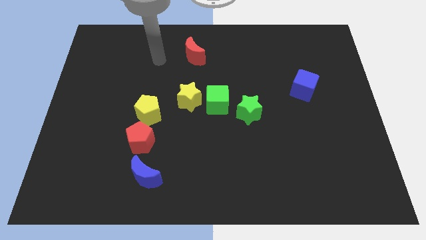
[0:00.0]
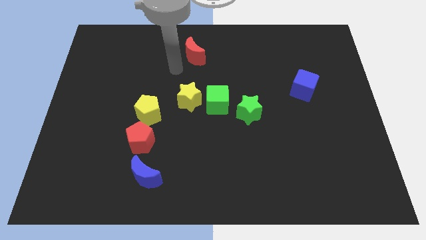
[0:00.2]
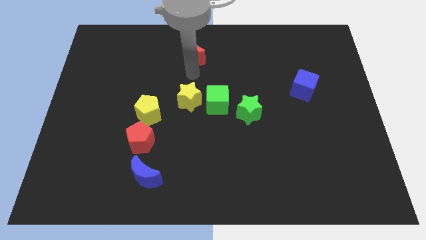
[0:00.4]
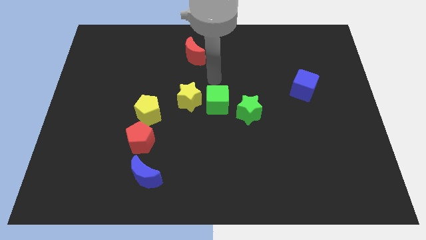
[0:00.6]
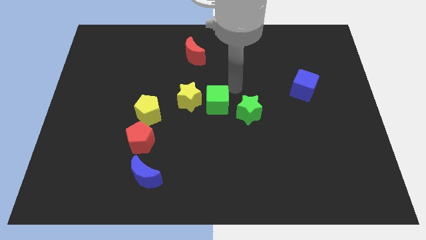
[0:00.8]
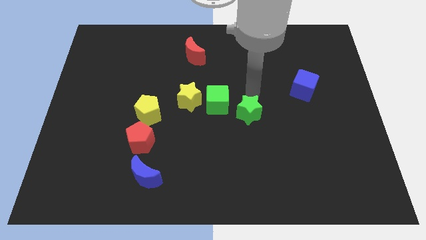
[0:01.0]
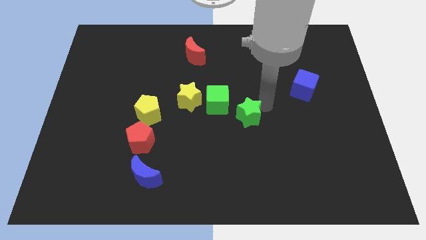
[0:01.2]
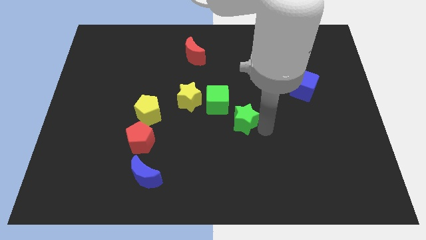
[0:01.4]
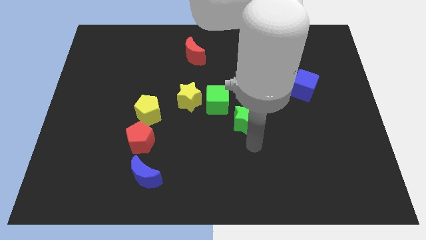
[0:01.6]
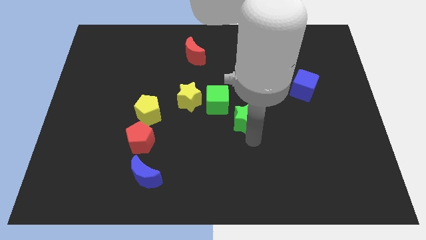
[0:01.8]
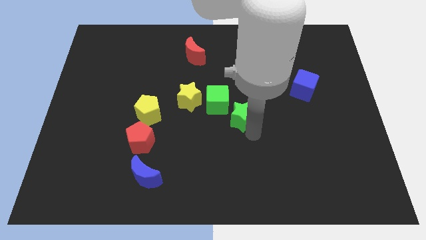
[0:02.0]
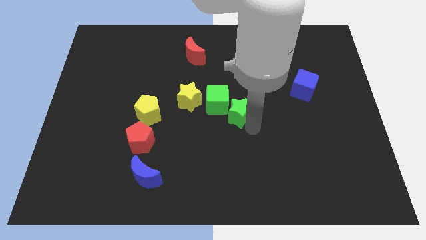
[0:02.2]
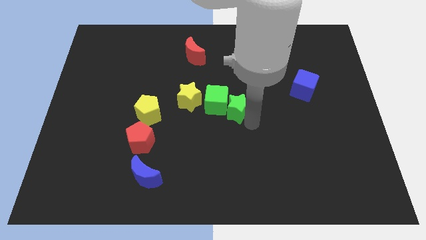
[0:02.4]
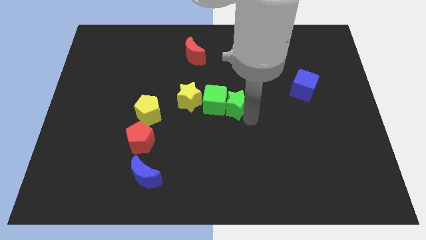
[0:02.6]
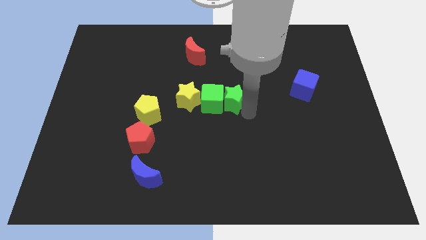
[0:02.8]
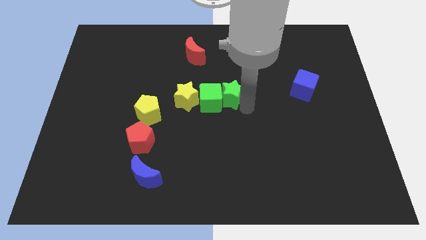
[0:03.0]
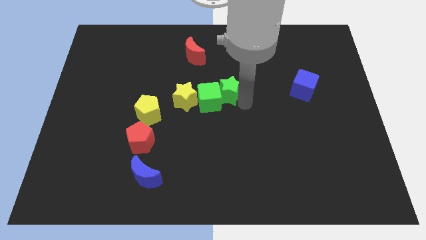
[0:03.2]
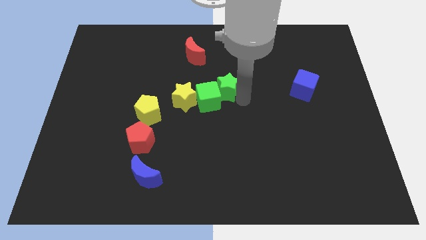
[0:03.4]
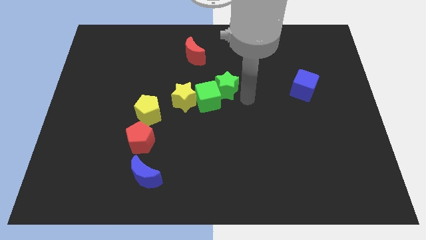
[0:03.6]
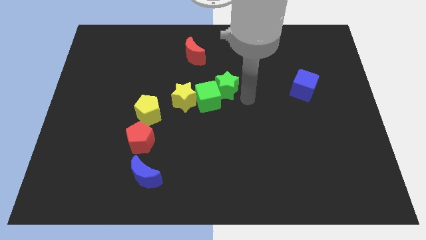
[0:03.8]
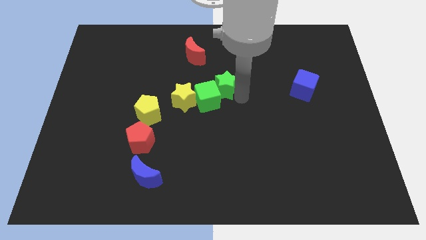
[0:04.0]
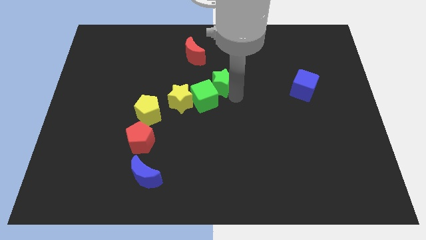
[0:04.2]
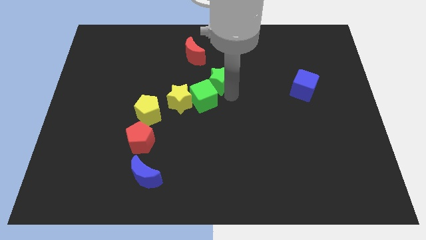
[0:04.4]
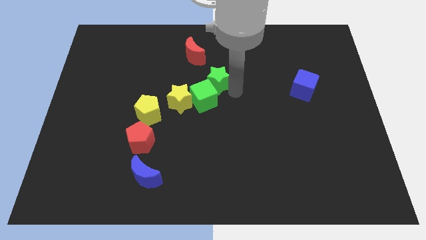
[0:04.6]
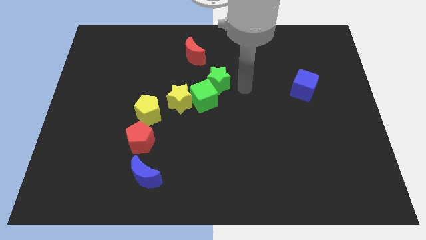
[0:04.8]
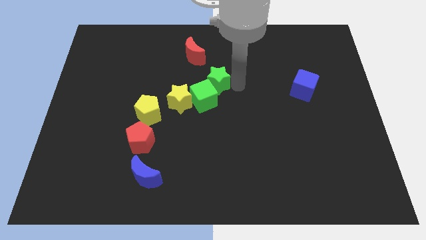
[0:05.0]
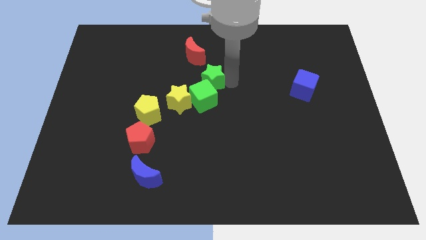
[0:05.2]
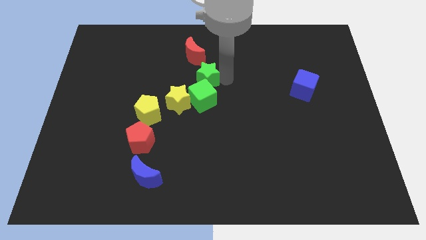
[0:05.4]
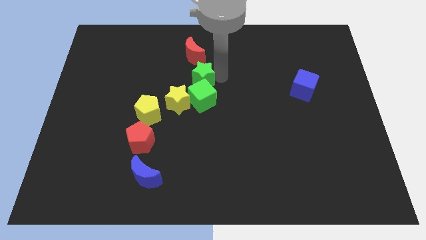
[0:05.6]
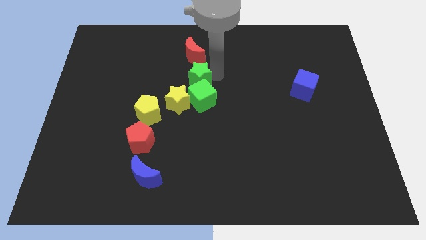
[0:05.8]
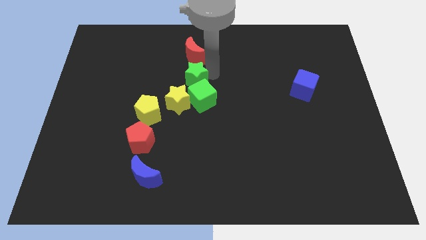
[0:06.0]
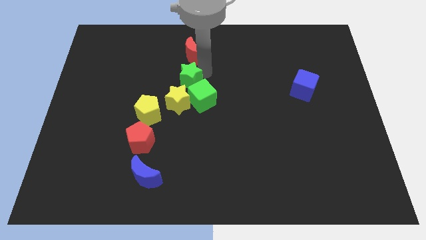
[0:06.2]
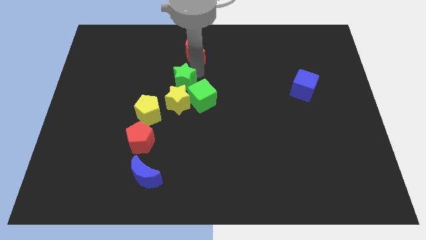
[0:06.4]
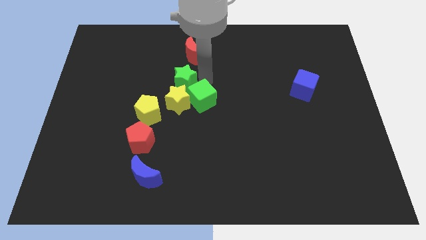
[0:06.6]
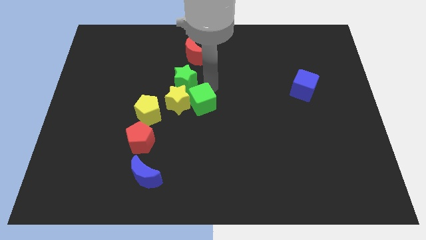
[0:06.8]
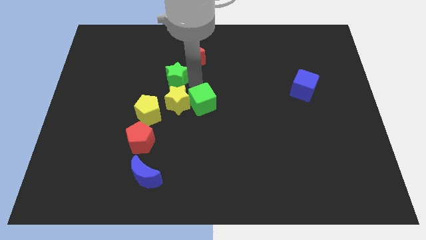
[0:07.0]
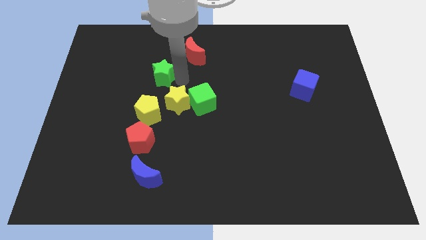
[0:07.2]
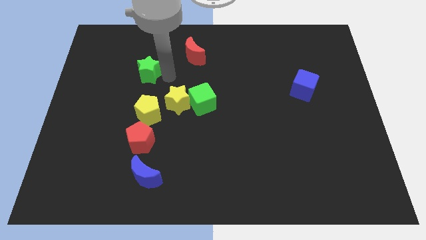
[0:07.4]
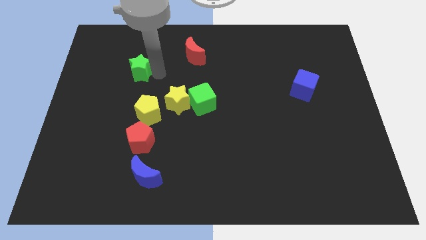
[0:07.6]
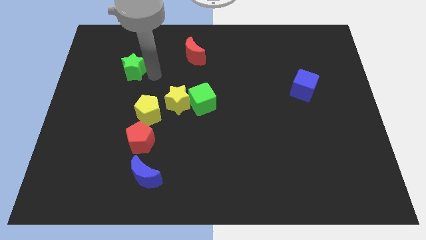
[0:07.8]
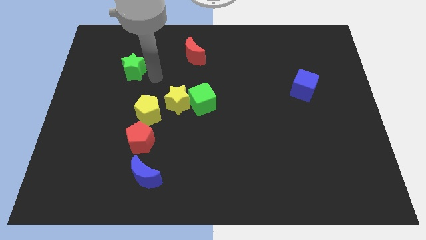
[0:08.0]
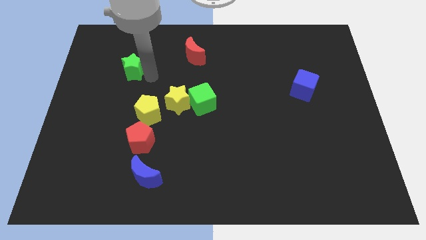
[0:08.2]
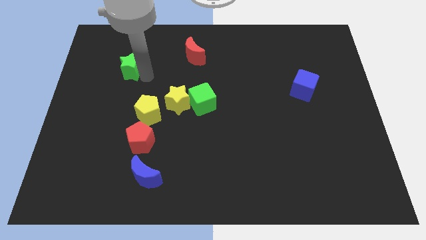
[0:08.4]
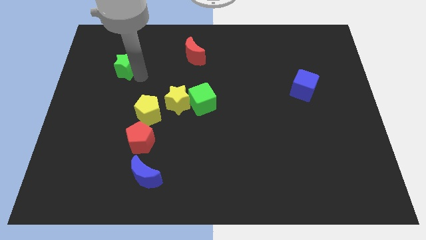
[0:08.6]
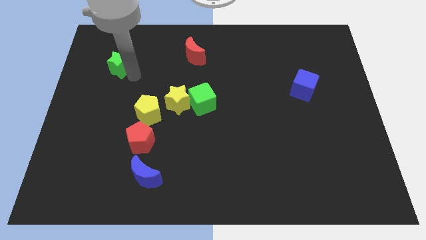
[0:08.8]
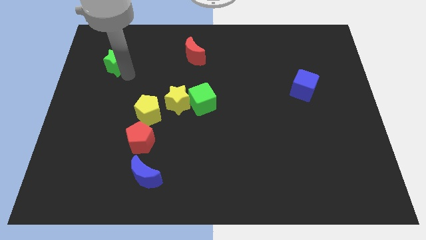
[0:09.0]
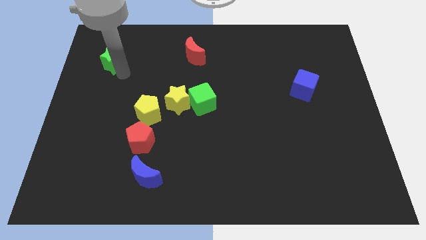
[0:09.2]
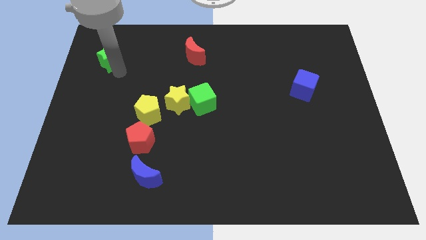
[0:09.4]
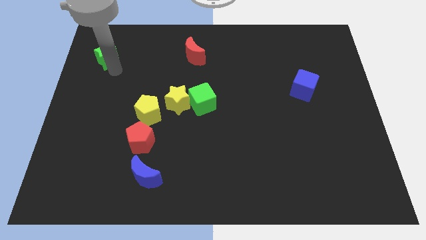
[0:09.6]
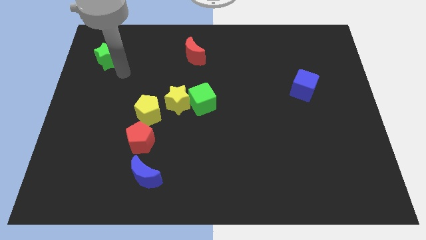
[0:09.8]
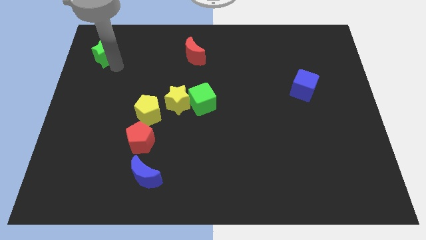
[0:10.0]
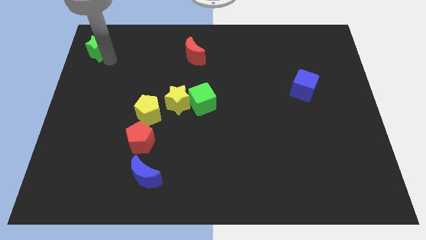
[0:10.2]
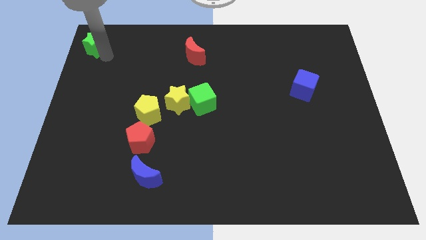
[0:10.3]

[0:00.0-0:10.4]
push the green star to the top left corner

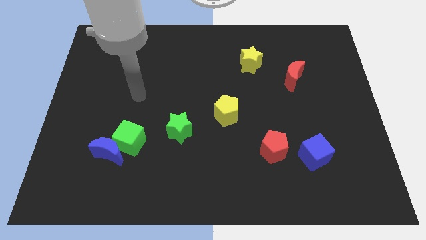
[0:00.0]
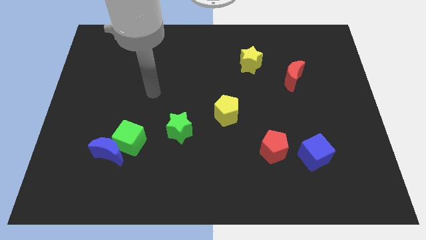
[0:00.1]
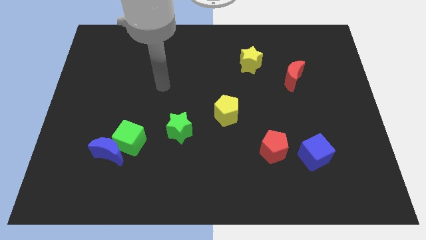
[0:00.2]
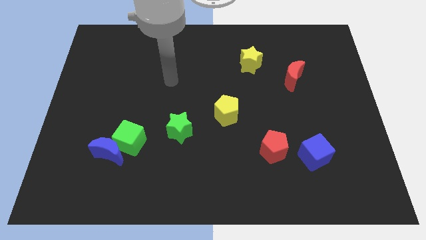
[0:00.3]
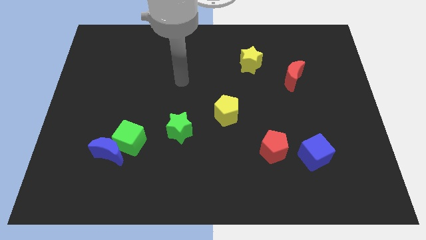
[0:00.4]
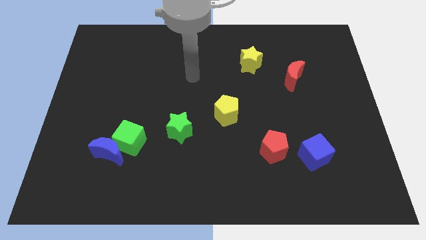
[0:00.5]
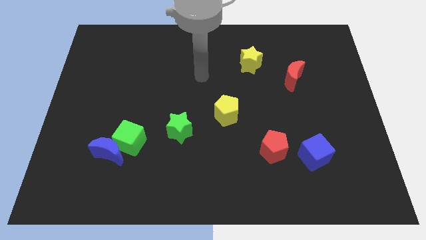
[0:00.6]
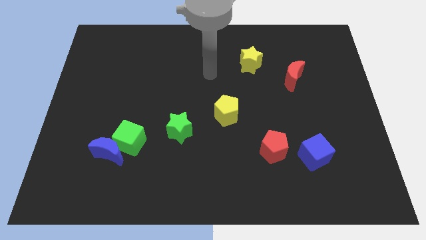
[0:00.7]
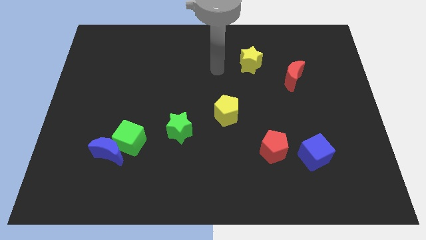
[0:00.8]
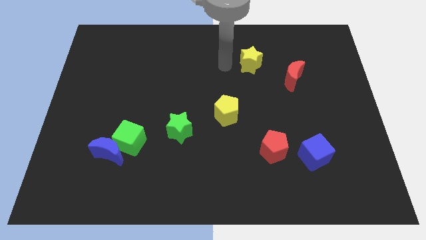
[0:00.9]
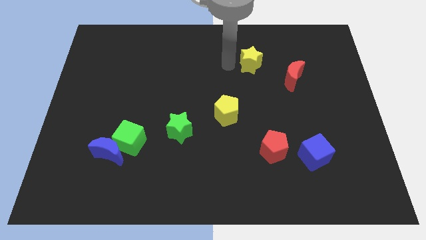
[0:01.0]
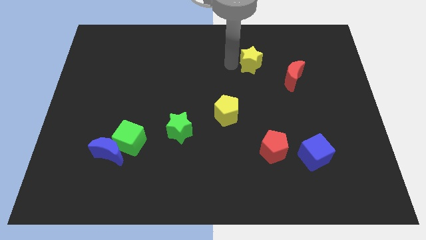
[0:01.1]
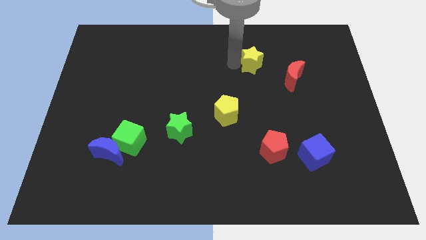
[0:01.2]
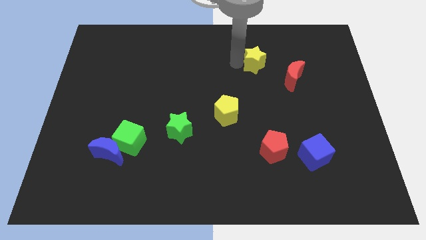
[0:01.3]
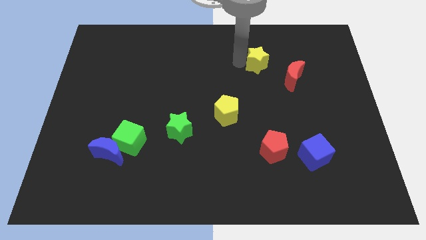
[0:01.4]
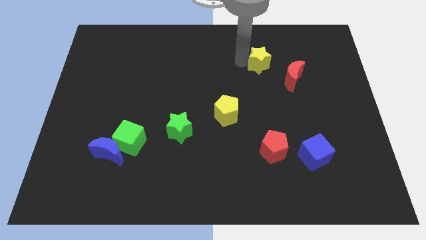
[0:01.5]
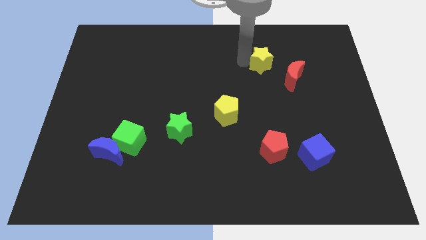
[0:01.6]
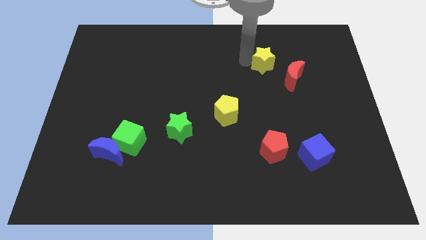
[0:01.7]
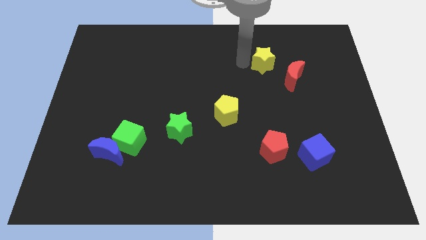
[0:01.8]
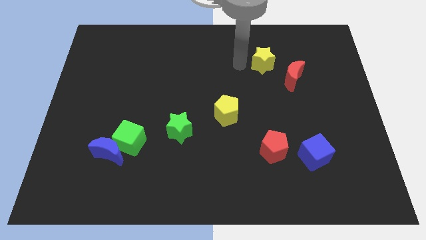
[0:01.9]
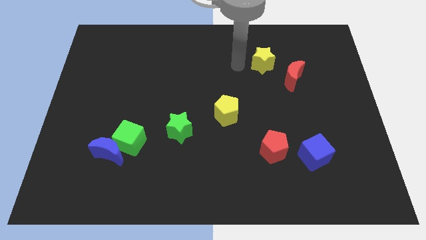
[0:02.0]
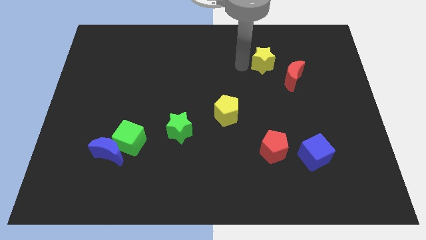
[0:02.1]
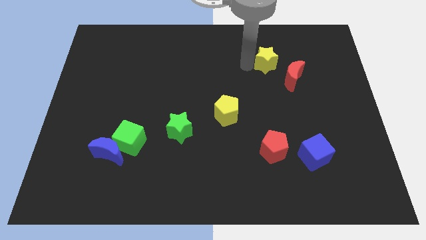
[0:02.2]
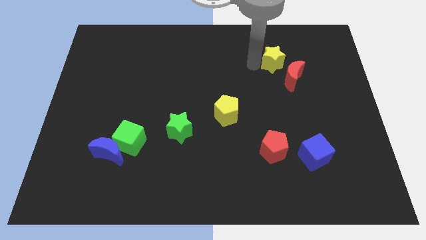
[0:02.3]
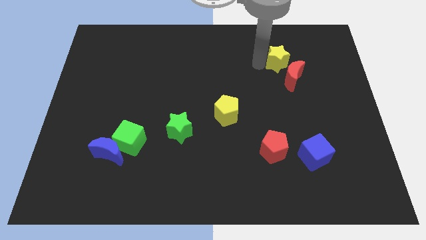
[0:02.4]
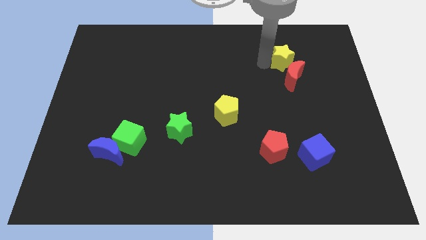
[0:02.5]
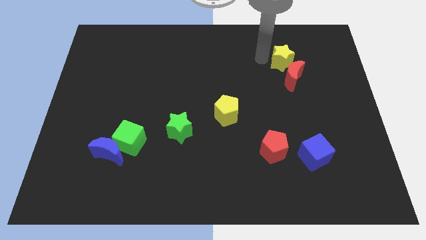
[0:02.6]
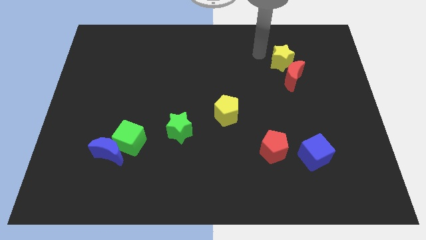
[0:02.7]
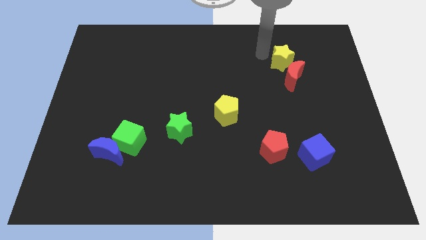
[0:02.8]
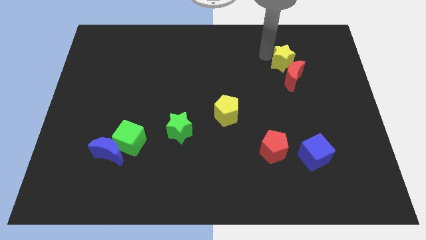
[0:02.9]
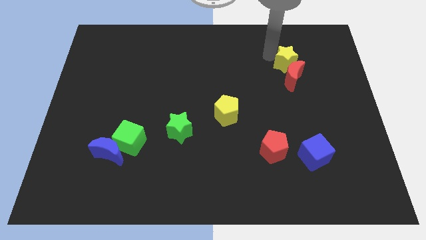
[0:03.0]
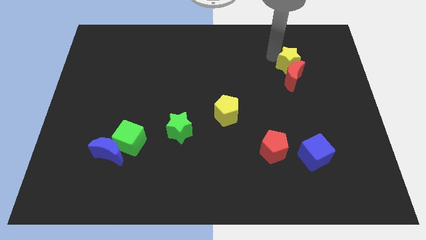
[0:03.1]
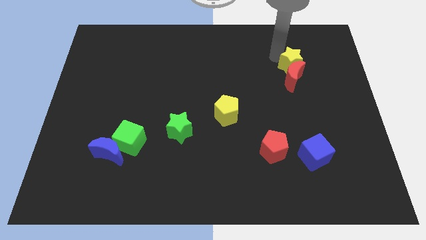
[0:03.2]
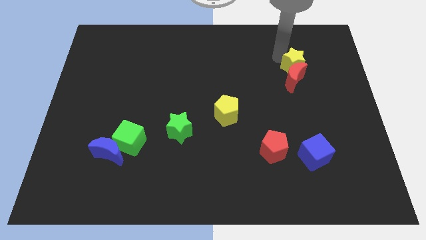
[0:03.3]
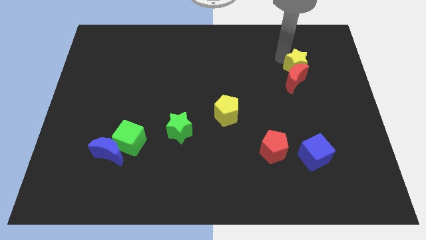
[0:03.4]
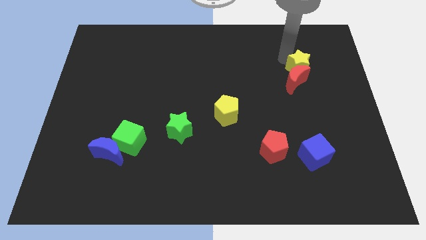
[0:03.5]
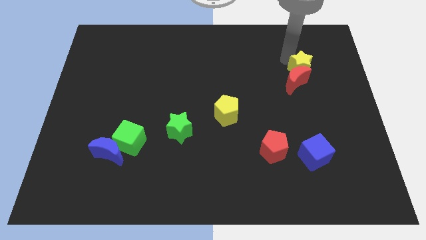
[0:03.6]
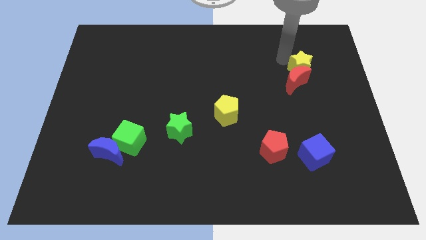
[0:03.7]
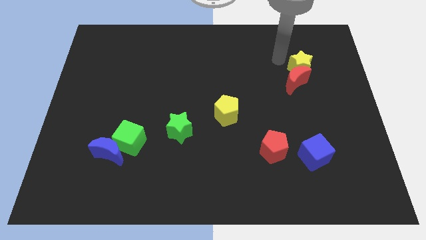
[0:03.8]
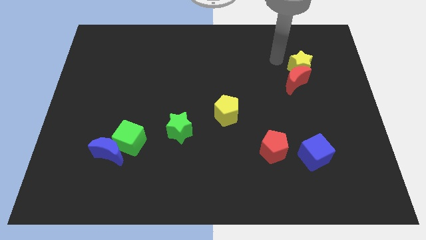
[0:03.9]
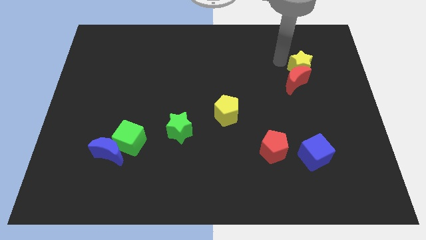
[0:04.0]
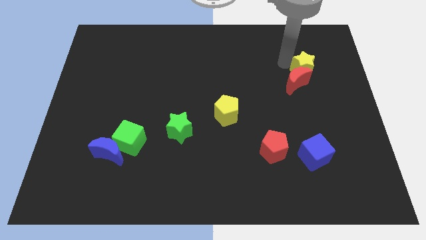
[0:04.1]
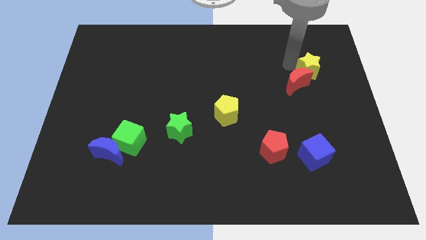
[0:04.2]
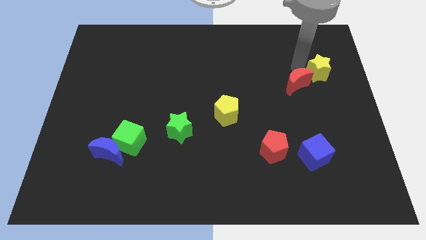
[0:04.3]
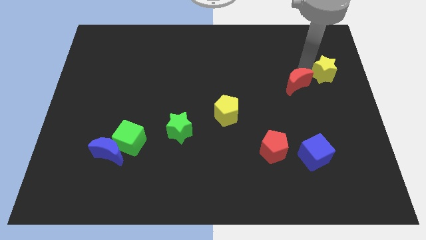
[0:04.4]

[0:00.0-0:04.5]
push the yellow star to the right side of the board
